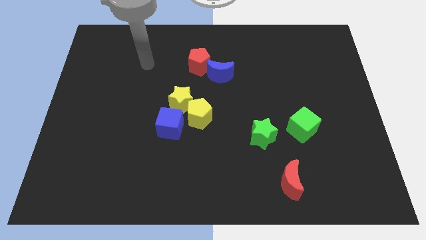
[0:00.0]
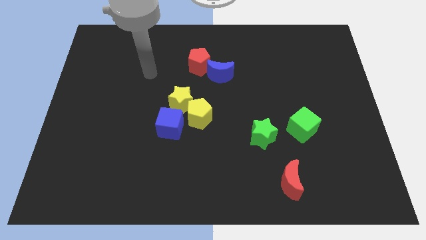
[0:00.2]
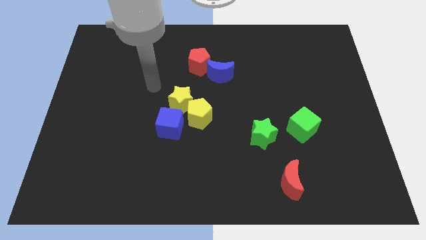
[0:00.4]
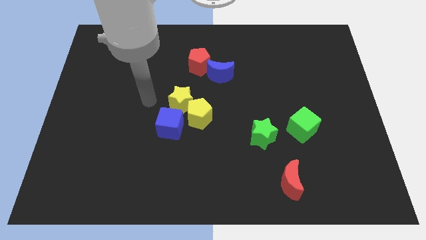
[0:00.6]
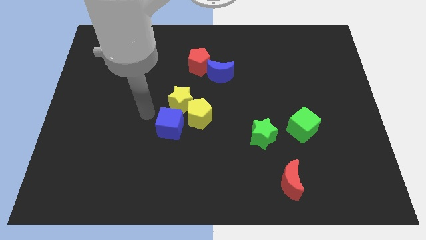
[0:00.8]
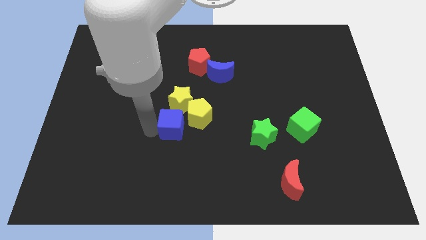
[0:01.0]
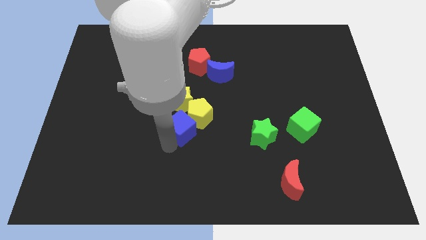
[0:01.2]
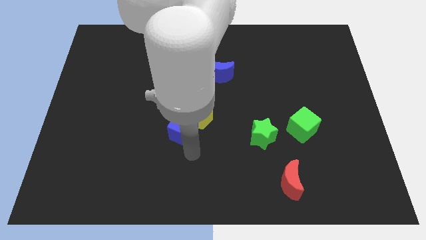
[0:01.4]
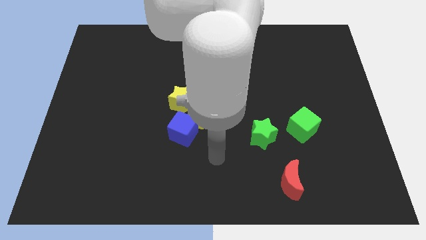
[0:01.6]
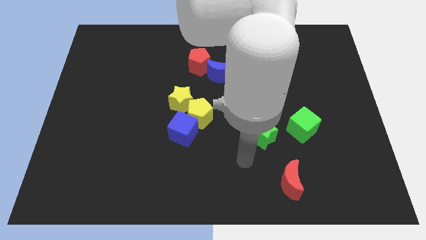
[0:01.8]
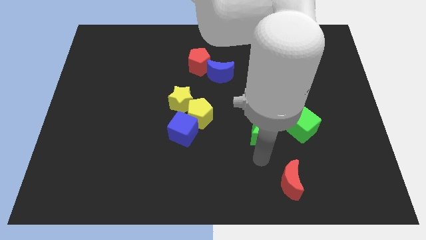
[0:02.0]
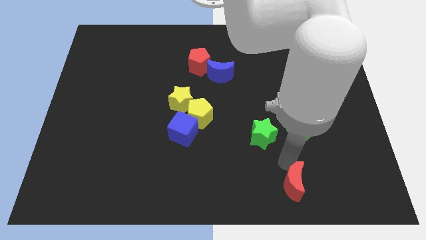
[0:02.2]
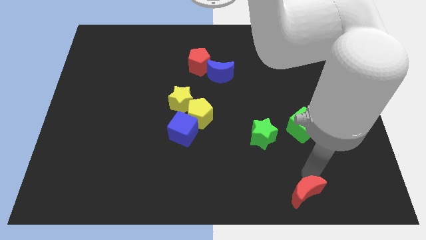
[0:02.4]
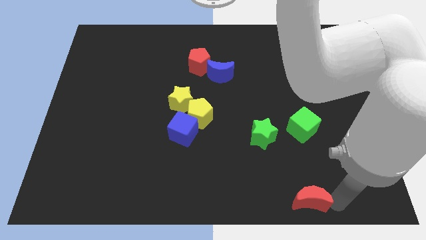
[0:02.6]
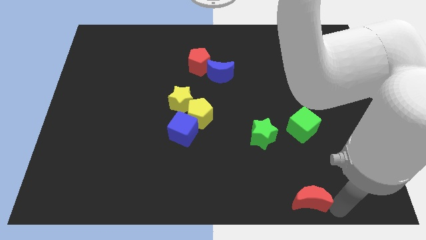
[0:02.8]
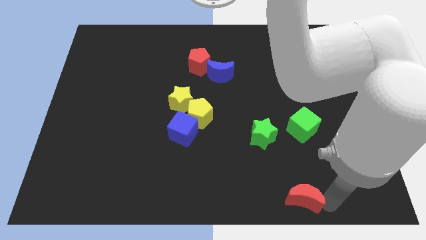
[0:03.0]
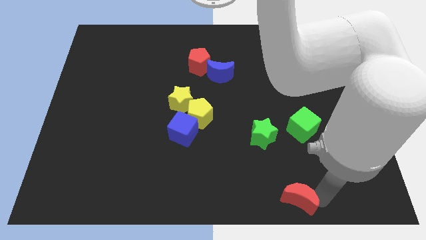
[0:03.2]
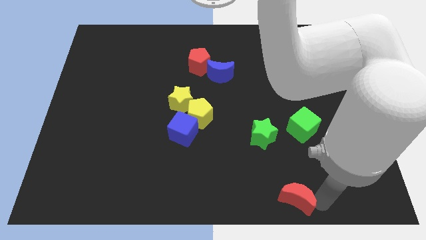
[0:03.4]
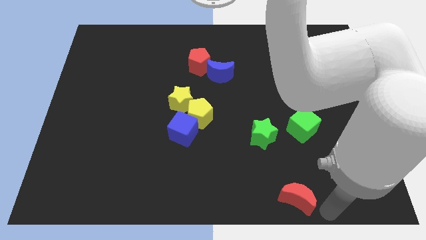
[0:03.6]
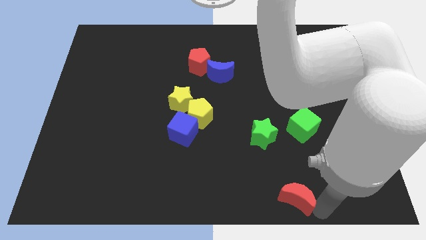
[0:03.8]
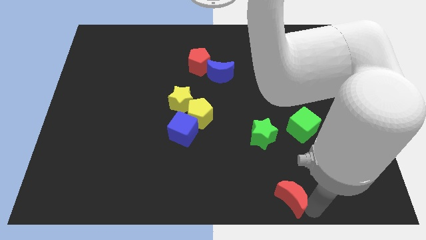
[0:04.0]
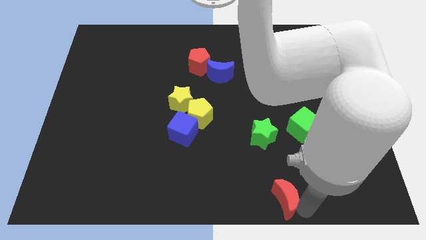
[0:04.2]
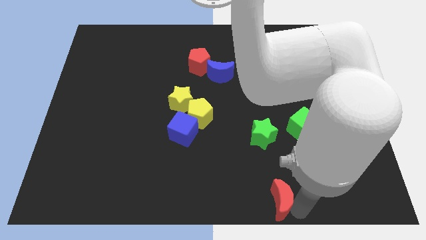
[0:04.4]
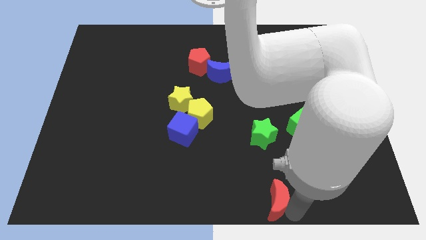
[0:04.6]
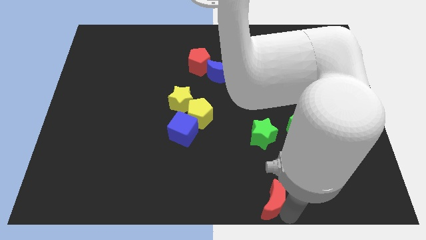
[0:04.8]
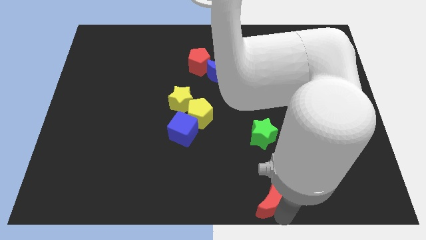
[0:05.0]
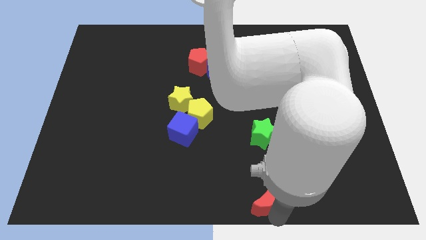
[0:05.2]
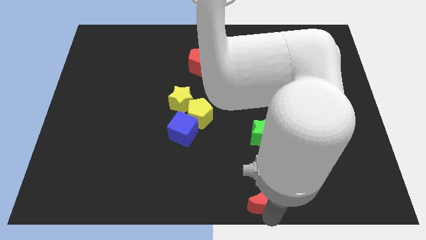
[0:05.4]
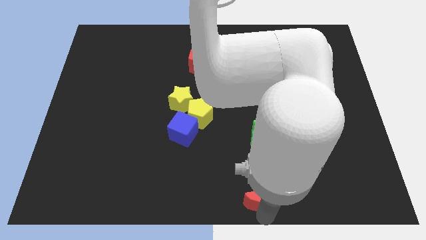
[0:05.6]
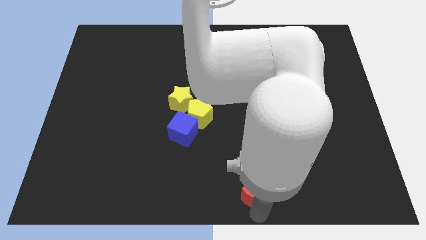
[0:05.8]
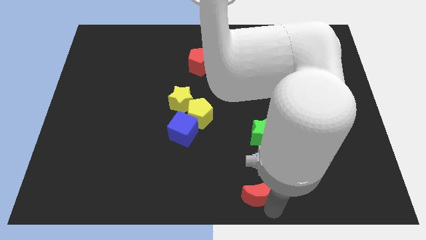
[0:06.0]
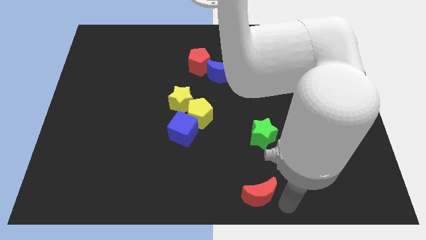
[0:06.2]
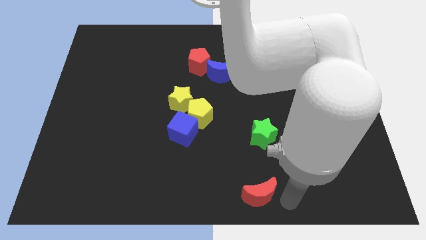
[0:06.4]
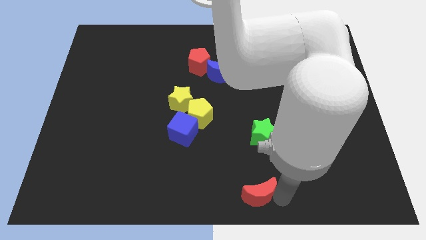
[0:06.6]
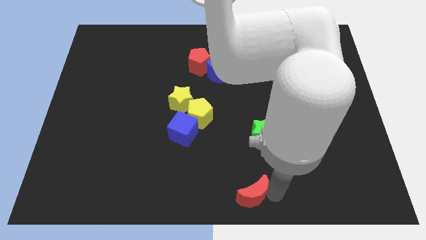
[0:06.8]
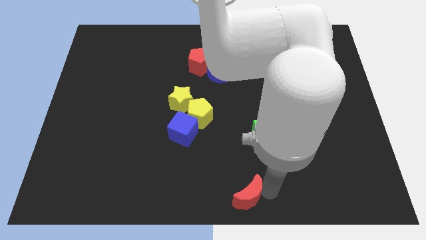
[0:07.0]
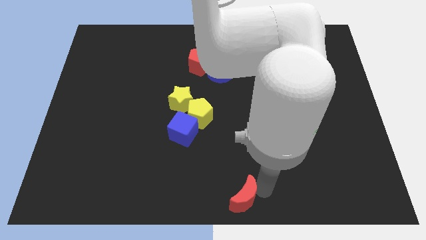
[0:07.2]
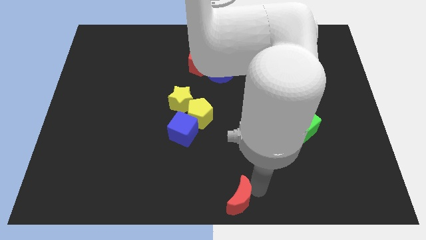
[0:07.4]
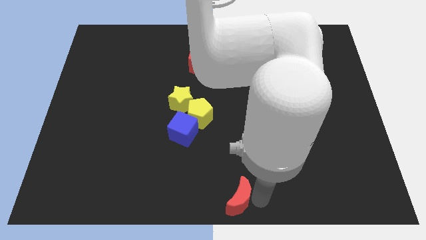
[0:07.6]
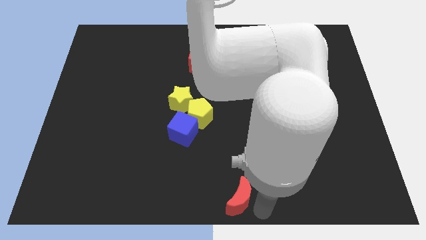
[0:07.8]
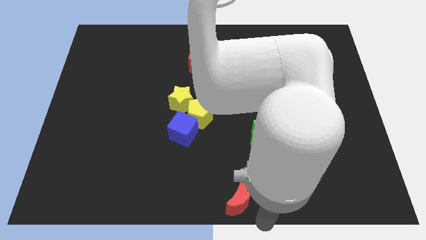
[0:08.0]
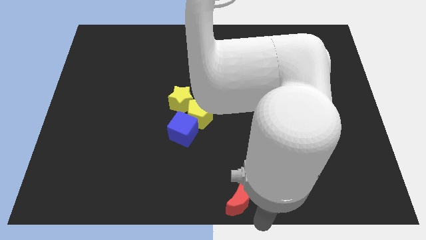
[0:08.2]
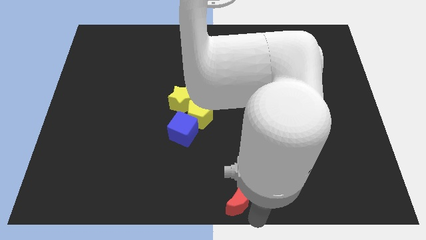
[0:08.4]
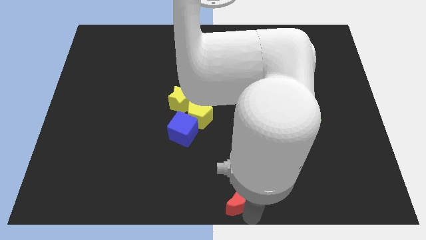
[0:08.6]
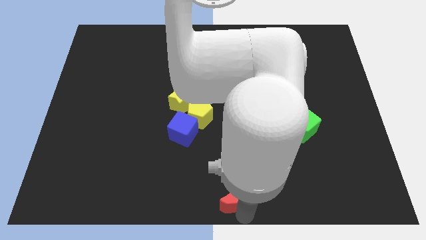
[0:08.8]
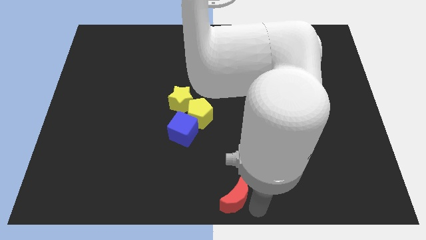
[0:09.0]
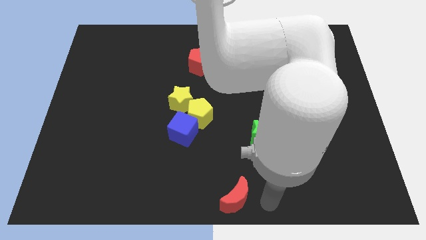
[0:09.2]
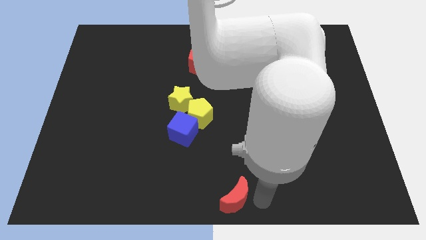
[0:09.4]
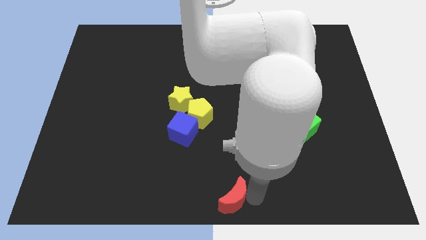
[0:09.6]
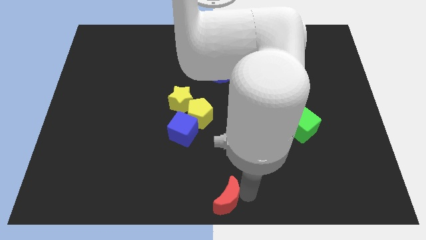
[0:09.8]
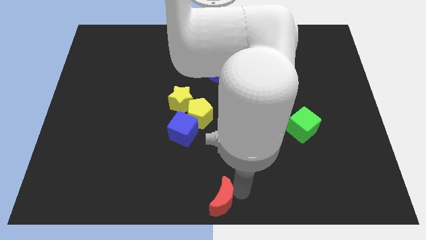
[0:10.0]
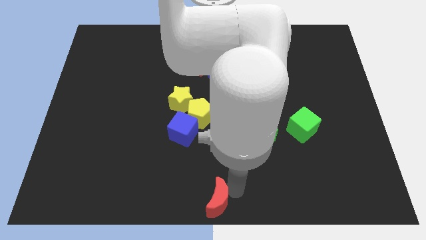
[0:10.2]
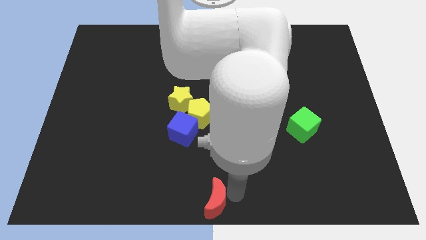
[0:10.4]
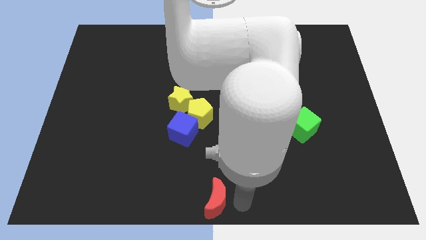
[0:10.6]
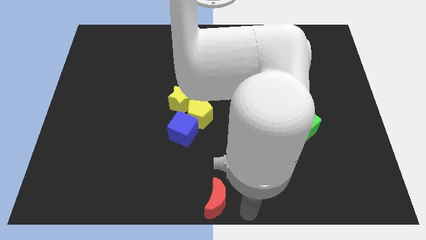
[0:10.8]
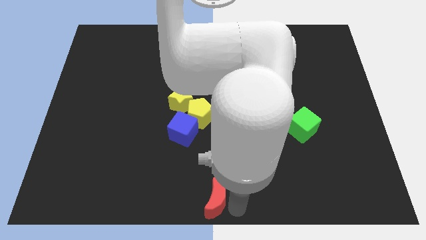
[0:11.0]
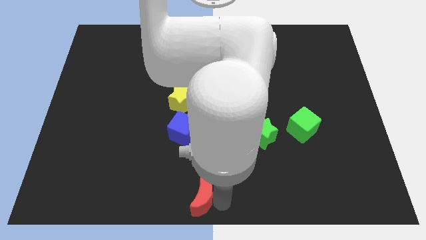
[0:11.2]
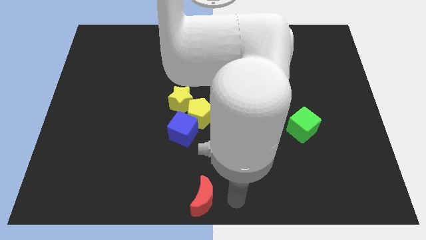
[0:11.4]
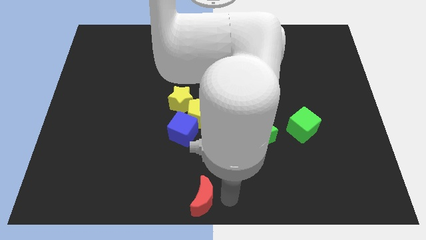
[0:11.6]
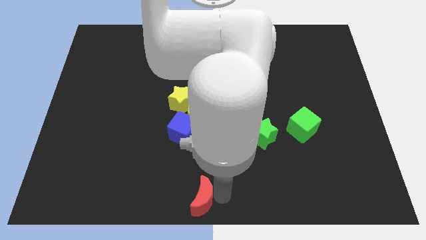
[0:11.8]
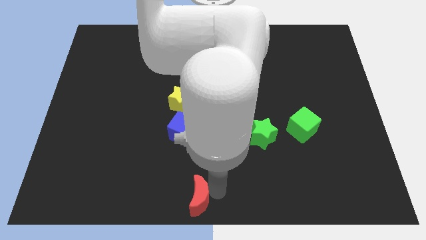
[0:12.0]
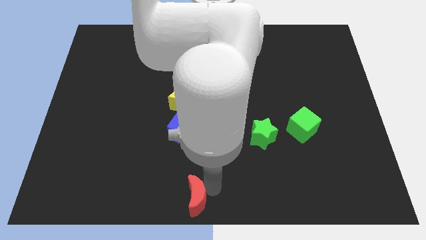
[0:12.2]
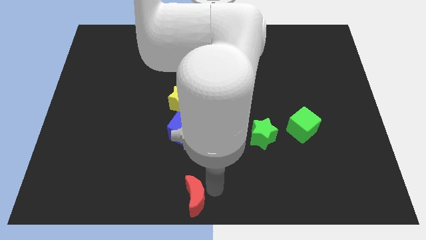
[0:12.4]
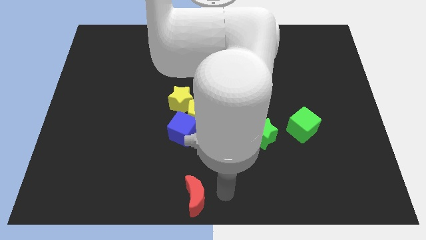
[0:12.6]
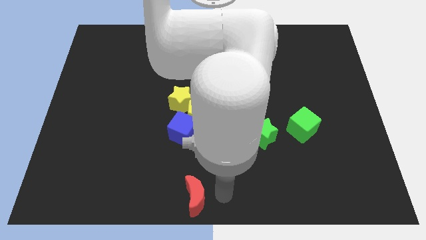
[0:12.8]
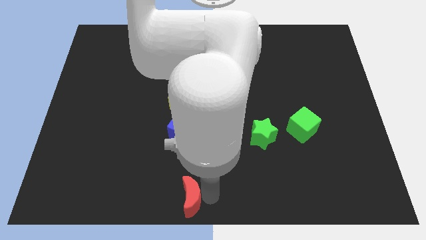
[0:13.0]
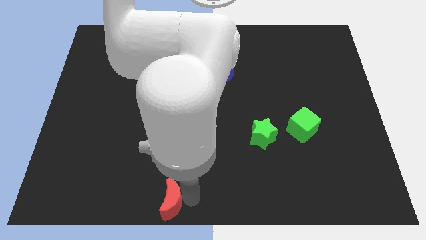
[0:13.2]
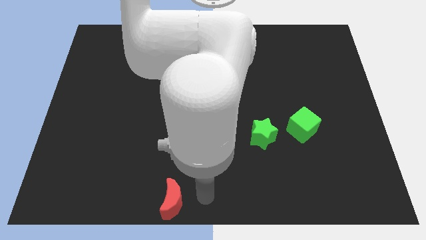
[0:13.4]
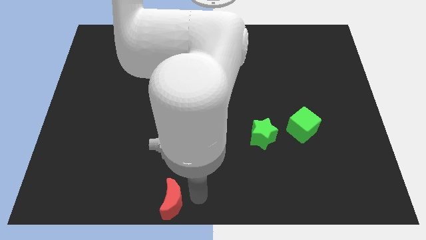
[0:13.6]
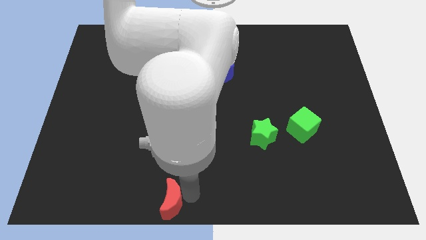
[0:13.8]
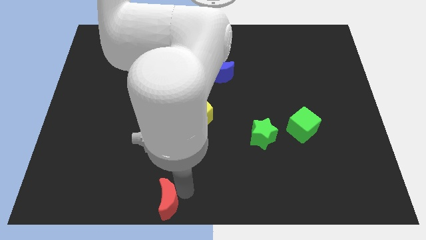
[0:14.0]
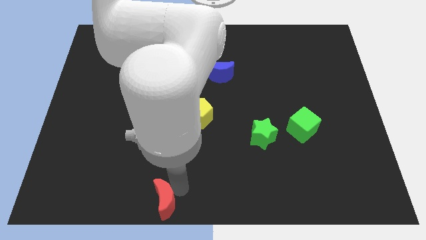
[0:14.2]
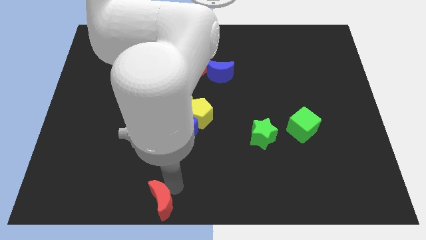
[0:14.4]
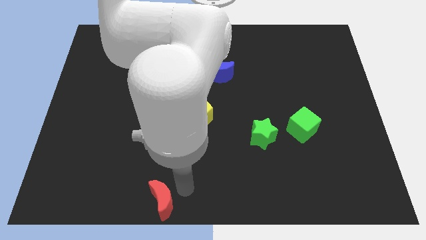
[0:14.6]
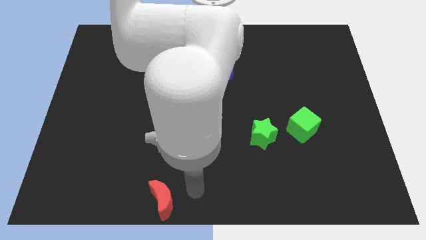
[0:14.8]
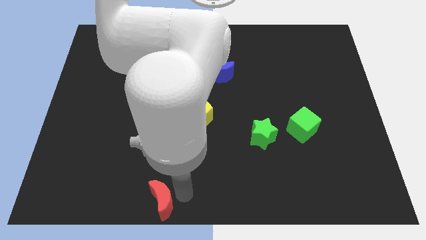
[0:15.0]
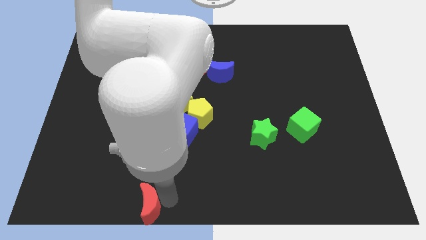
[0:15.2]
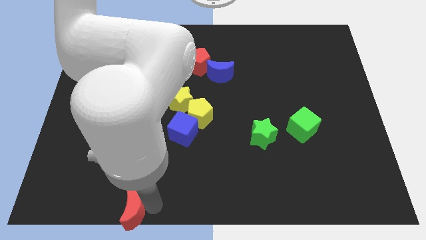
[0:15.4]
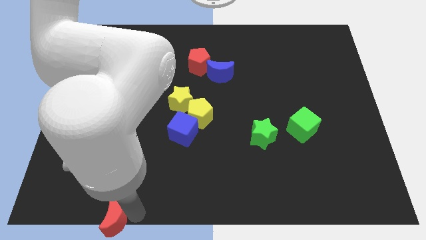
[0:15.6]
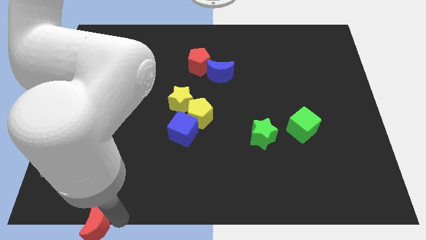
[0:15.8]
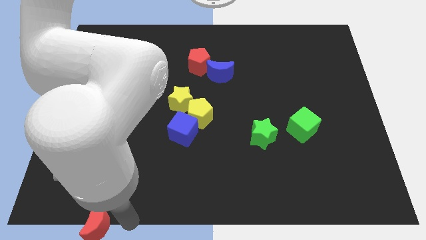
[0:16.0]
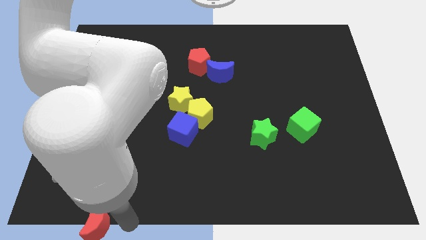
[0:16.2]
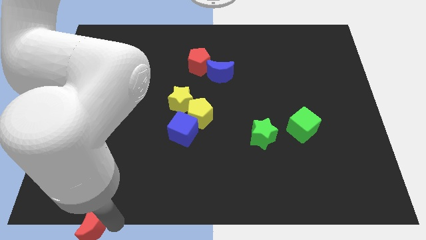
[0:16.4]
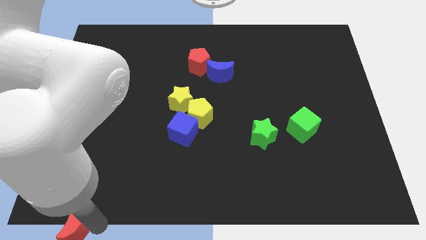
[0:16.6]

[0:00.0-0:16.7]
push the red moon to the lower left corner
